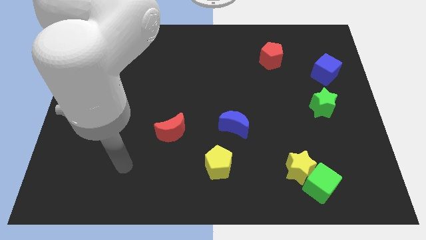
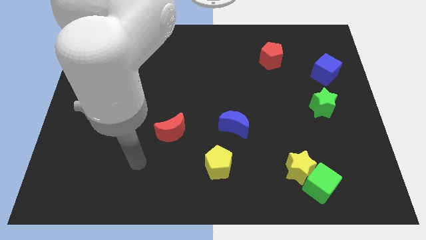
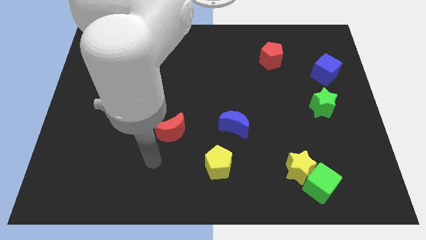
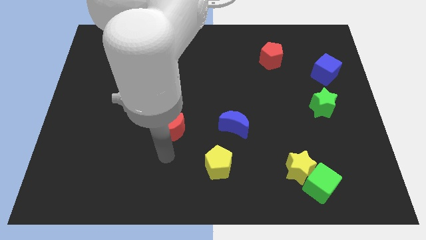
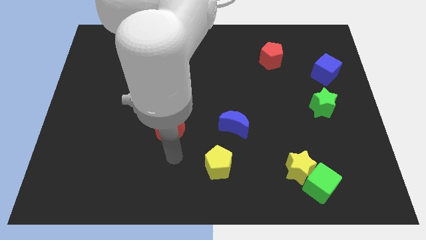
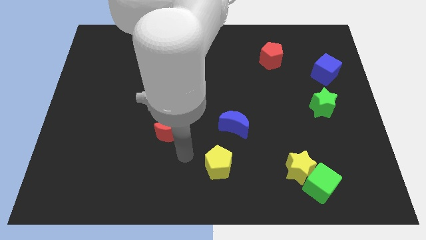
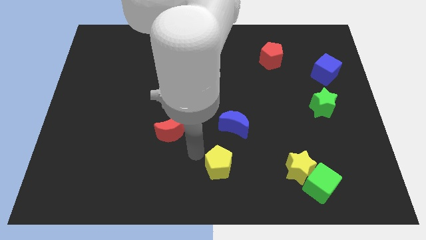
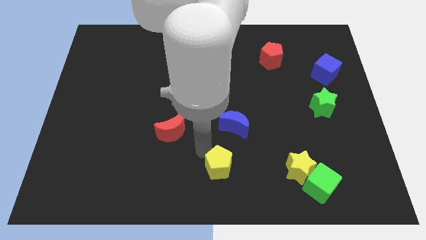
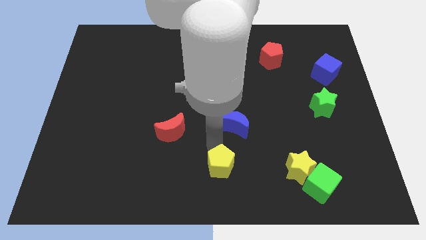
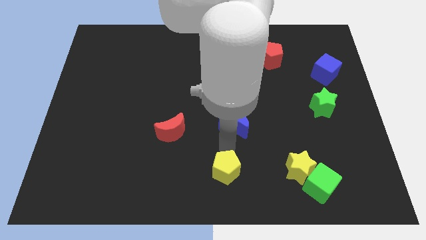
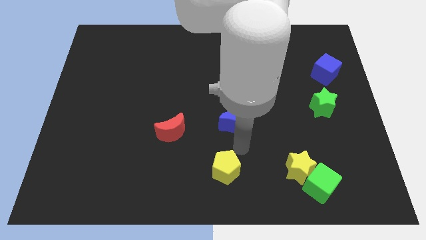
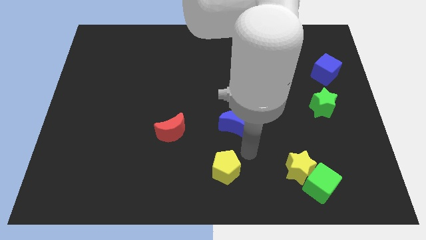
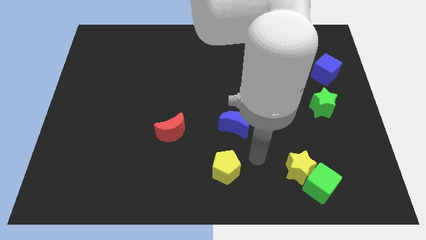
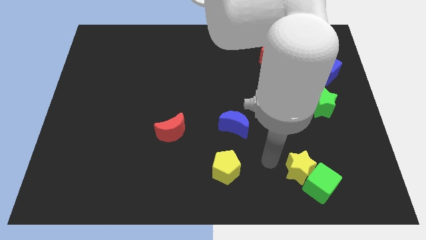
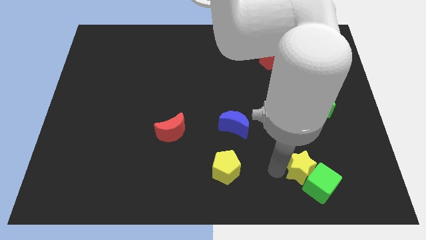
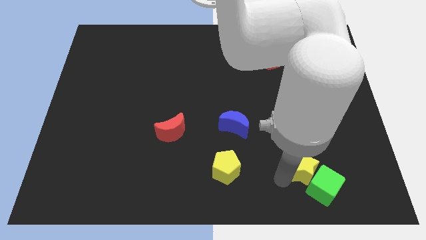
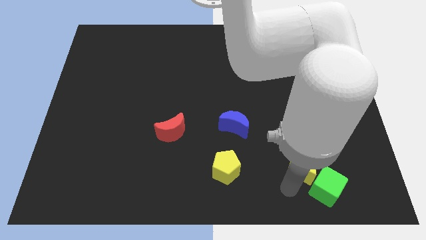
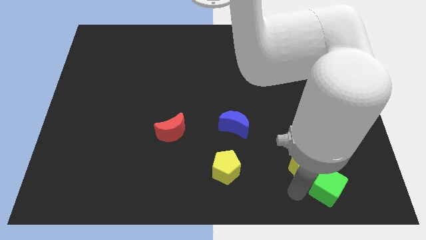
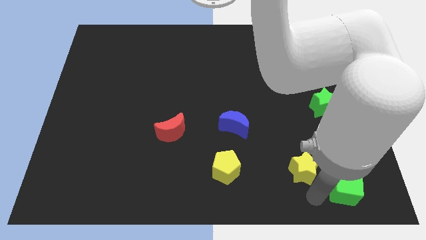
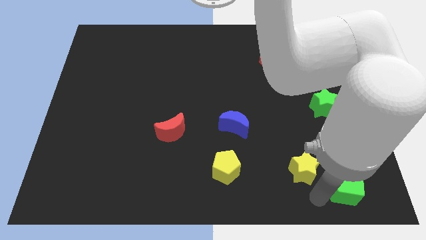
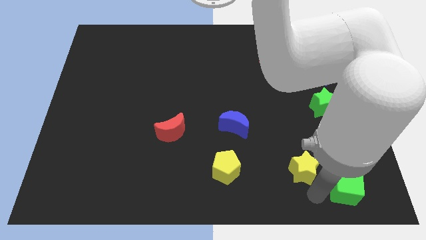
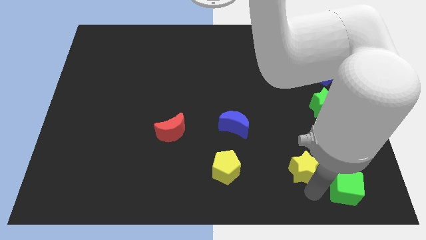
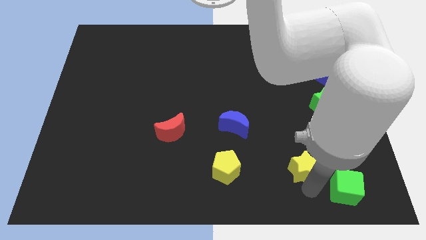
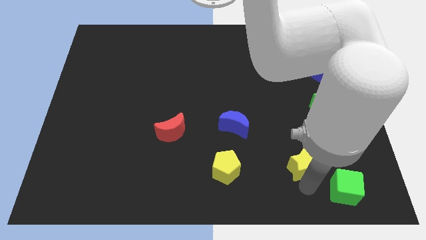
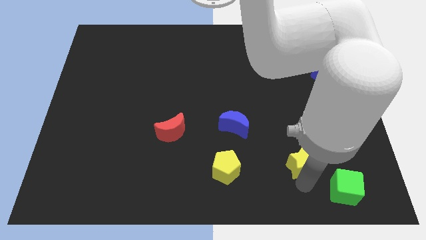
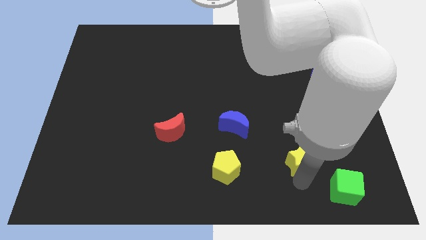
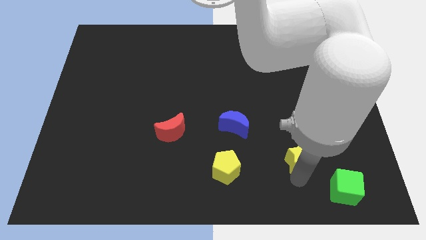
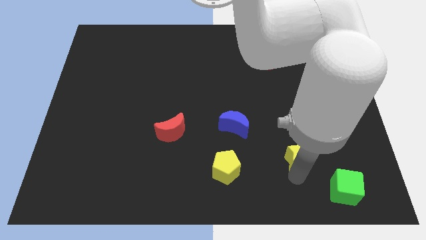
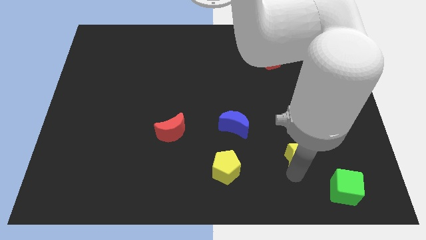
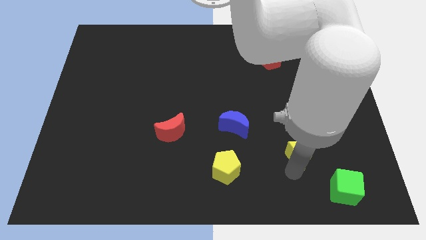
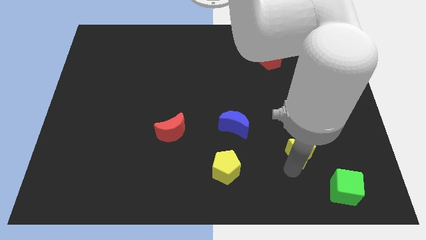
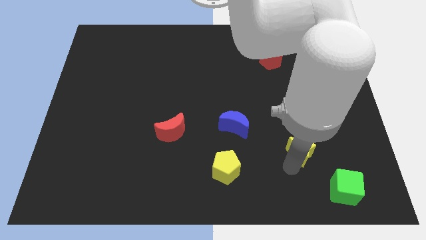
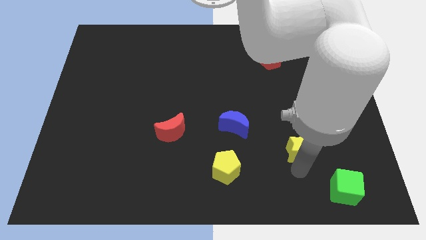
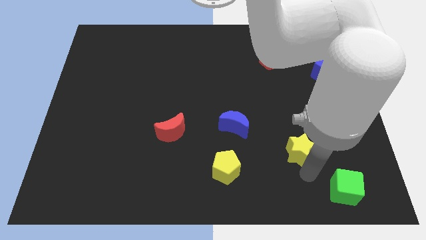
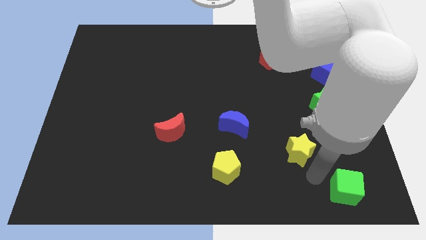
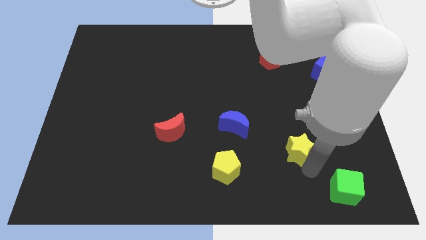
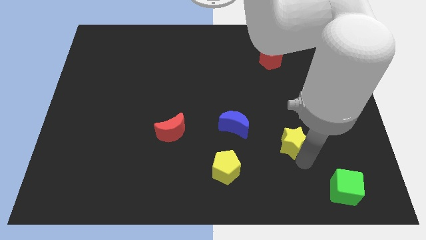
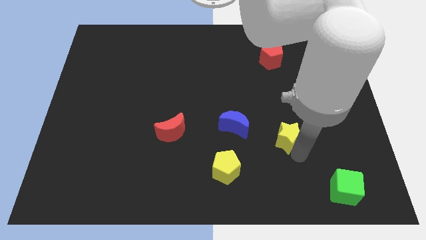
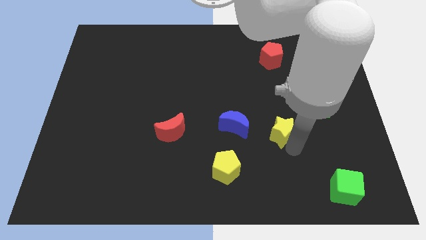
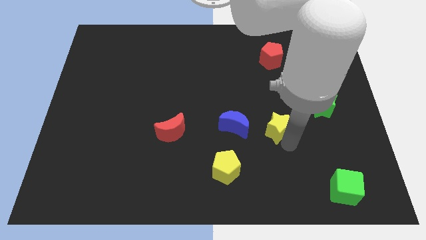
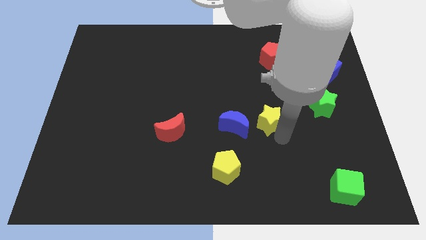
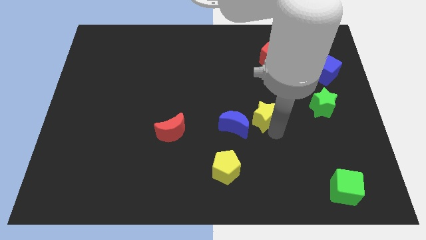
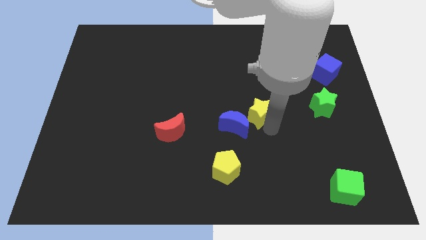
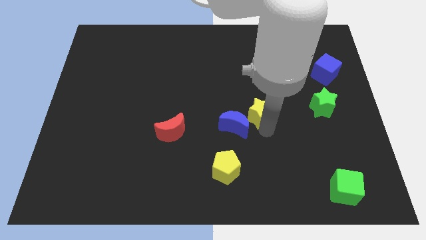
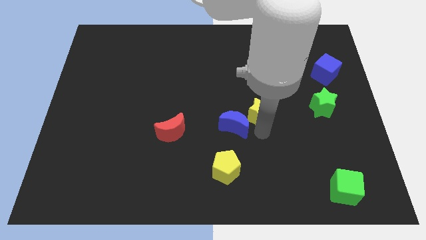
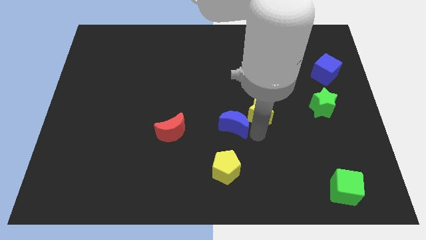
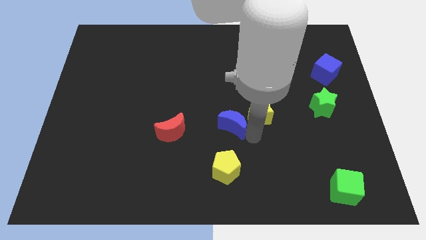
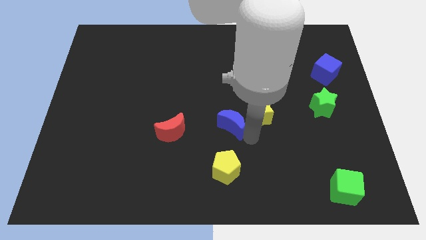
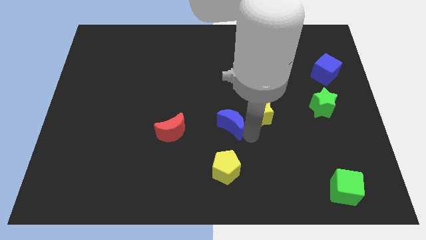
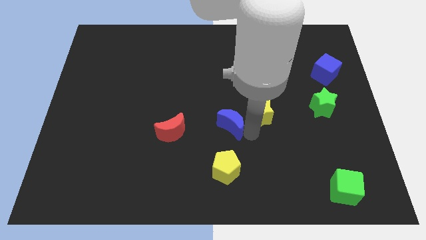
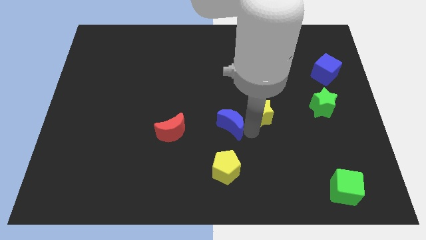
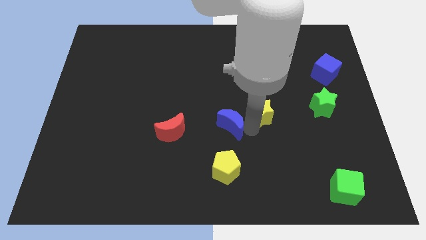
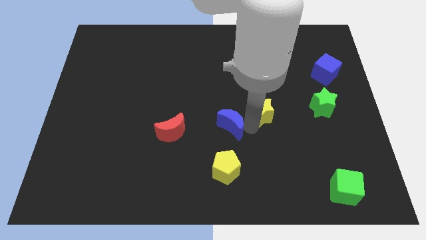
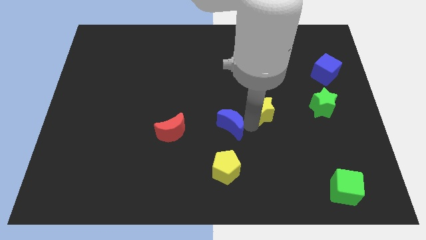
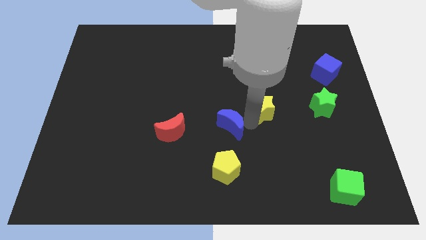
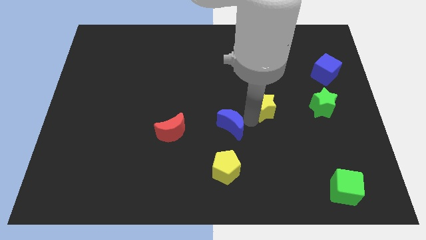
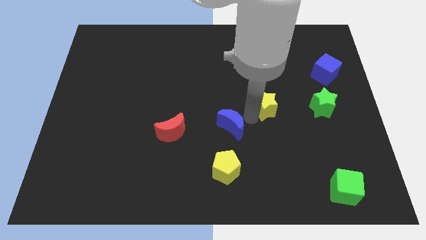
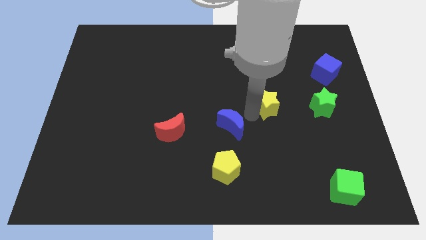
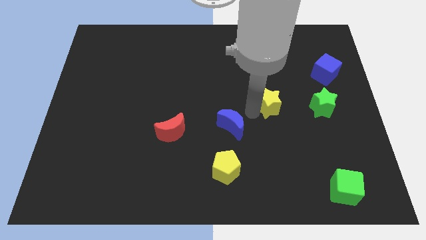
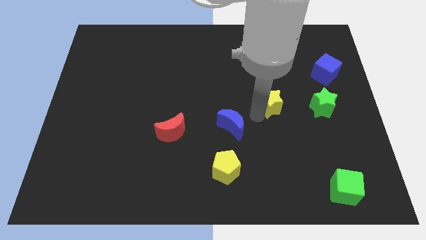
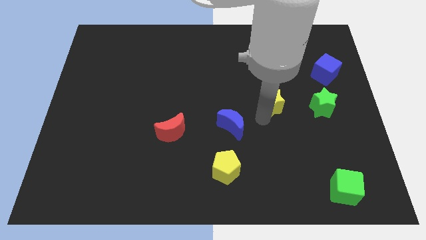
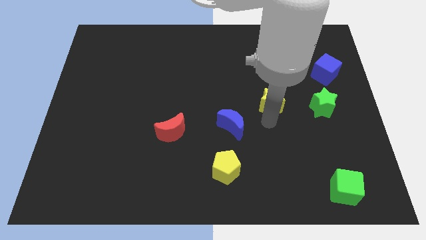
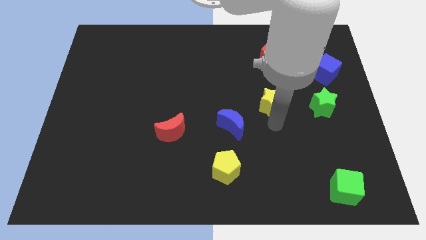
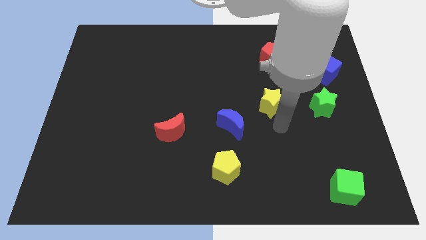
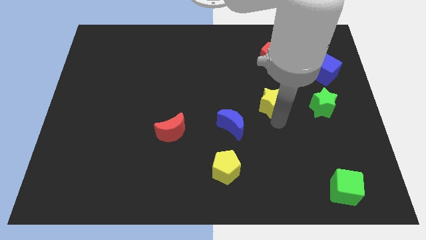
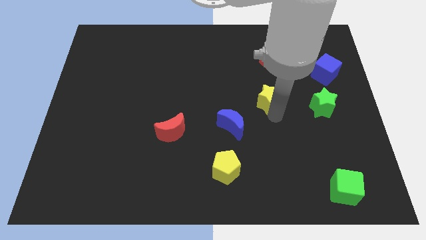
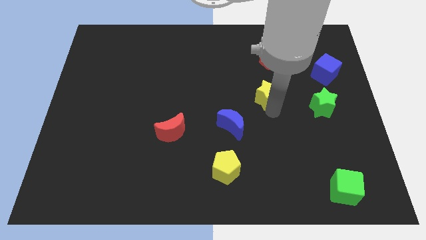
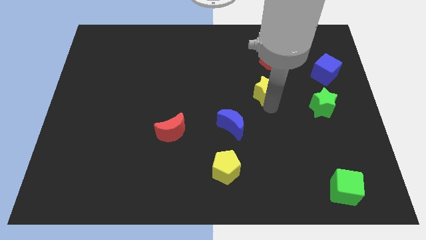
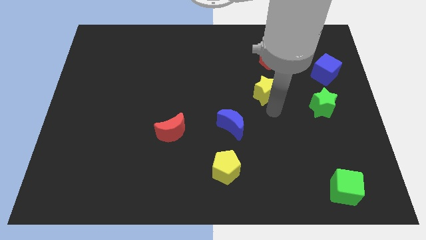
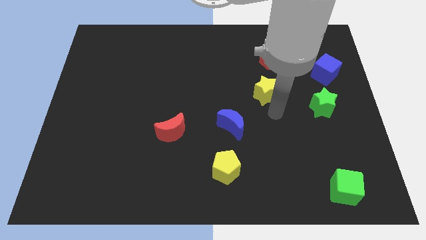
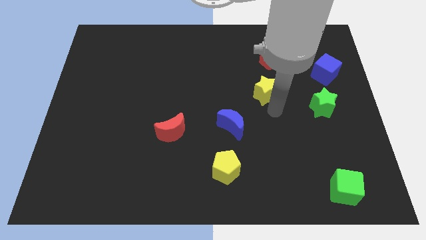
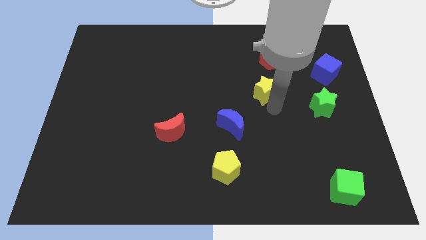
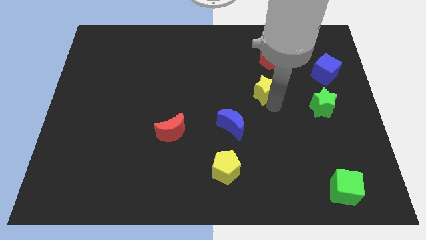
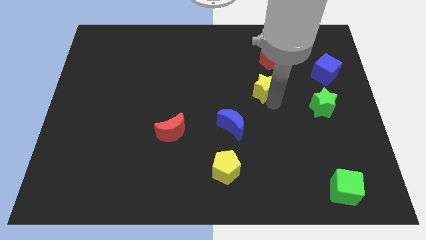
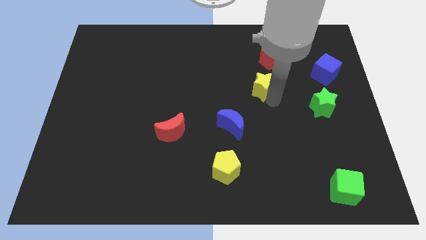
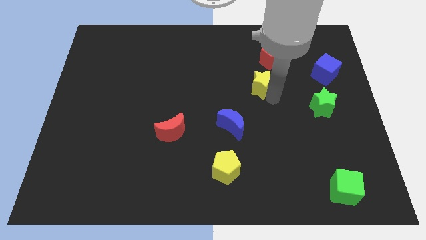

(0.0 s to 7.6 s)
slide the yellow star to the bottom left of the red pentagon

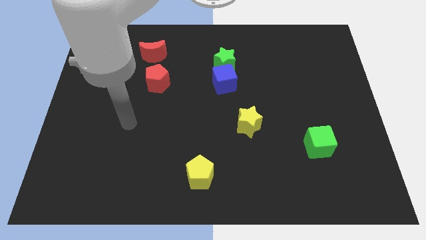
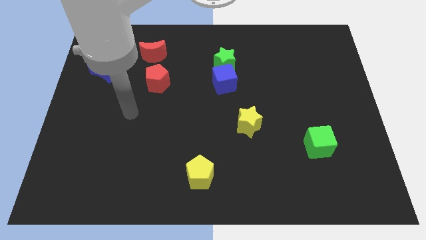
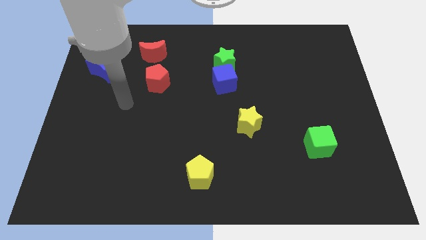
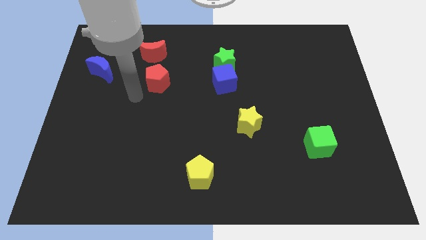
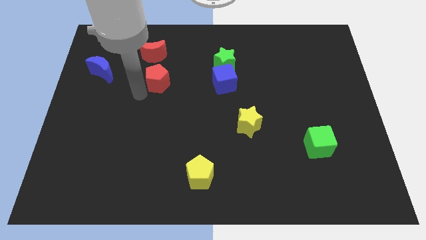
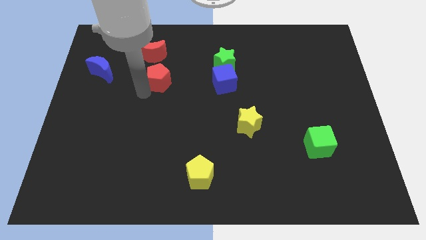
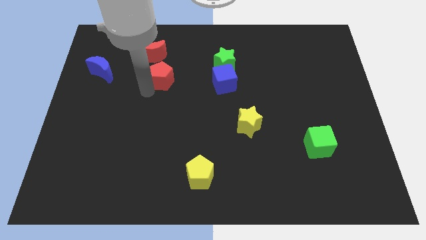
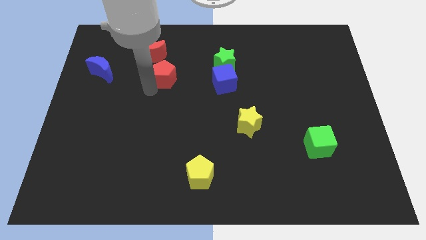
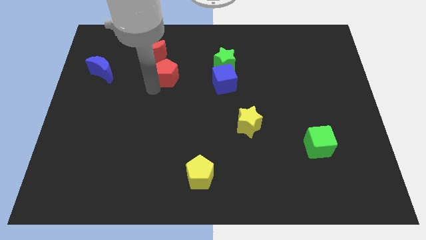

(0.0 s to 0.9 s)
push the red pentagon left of the green star
